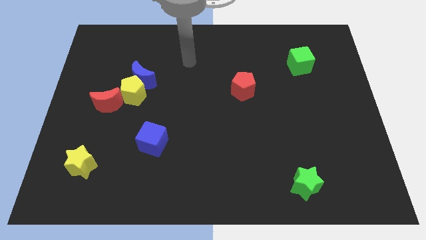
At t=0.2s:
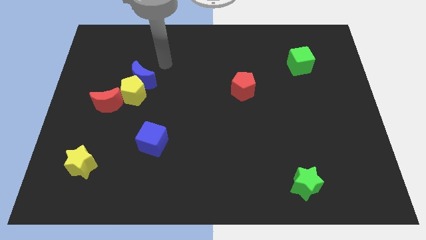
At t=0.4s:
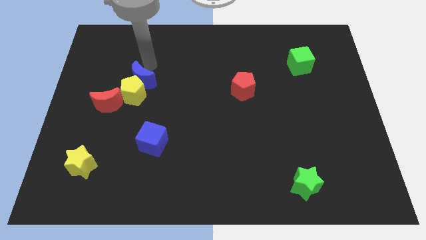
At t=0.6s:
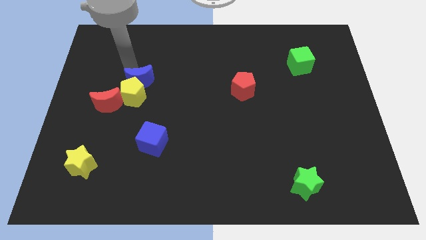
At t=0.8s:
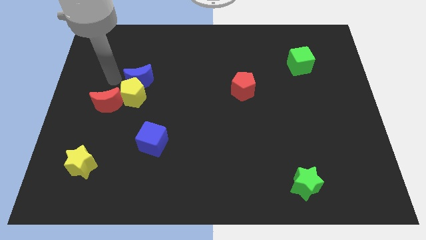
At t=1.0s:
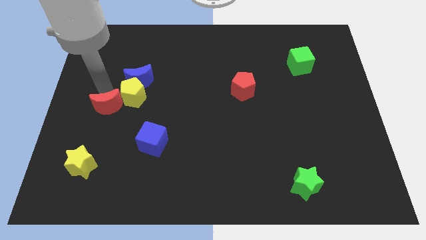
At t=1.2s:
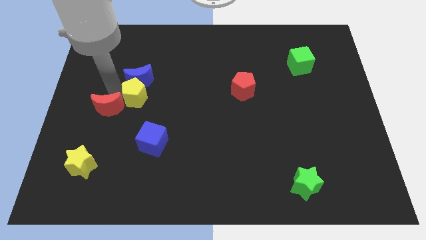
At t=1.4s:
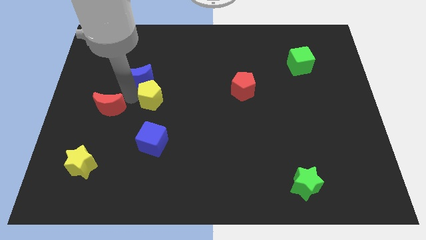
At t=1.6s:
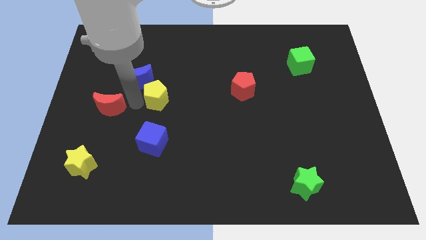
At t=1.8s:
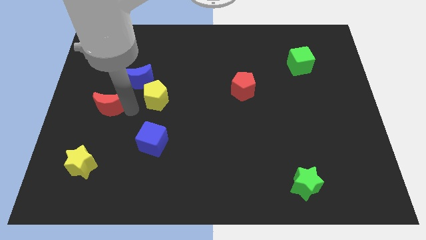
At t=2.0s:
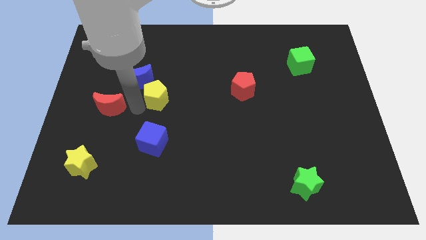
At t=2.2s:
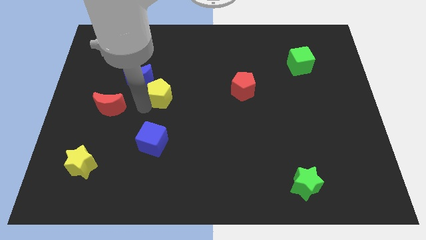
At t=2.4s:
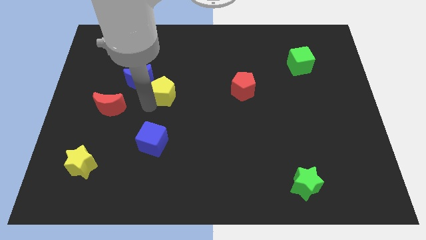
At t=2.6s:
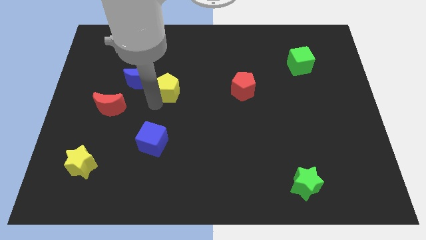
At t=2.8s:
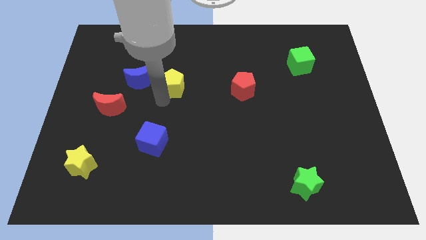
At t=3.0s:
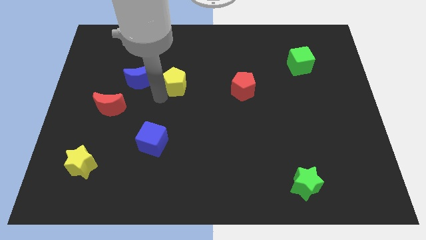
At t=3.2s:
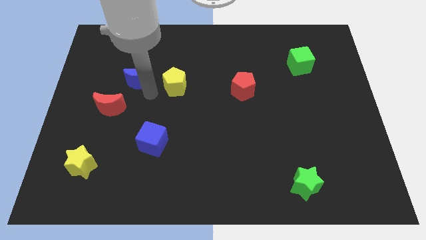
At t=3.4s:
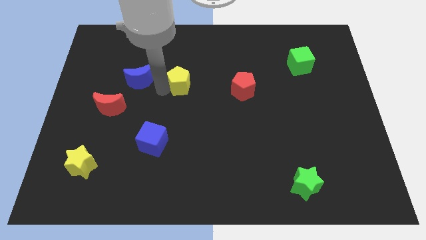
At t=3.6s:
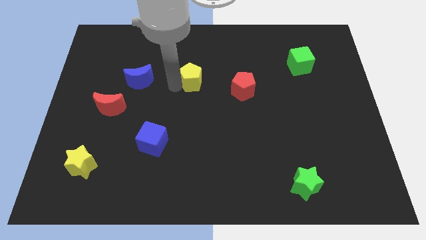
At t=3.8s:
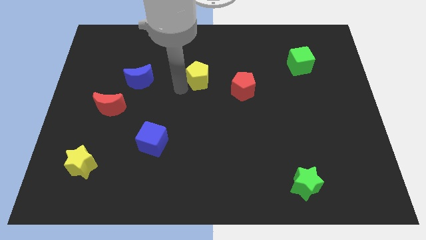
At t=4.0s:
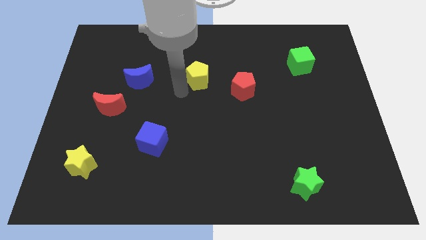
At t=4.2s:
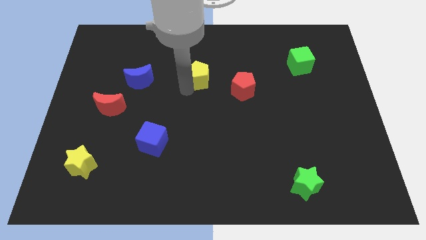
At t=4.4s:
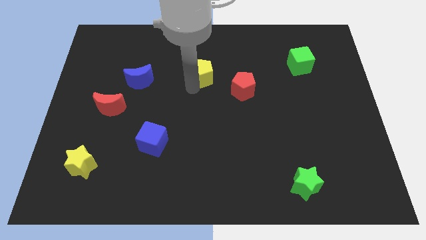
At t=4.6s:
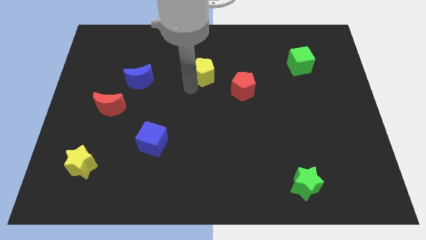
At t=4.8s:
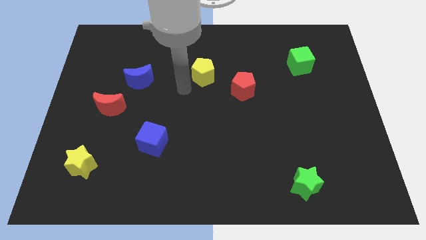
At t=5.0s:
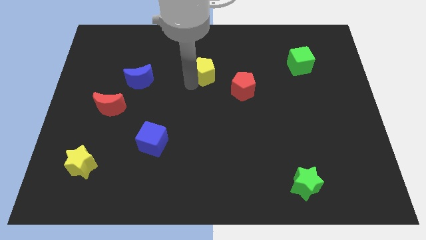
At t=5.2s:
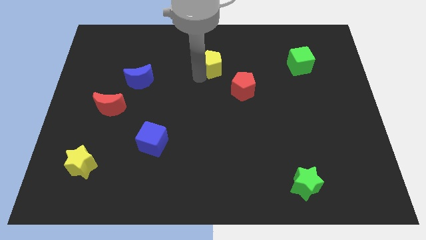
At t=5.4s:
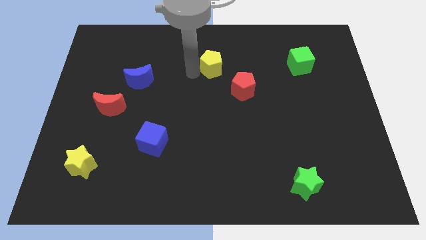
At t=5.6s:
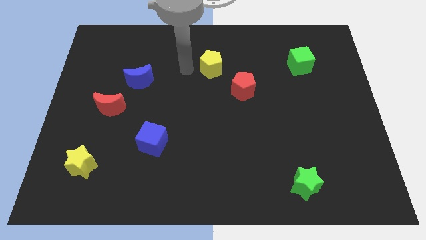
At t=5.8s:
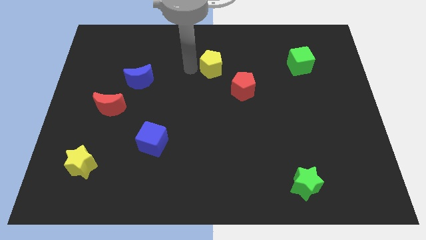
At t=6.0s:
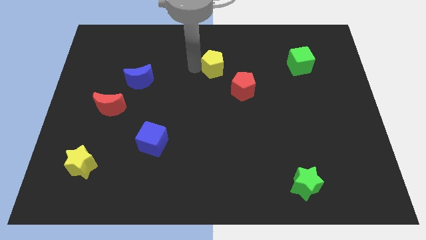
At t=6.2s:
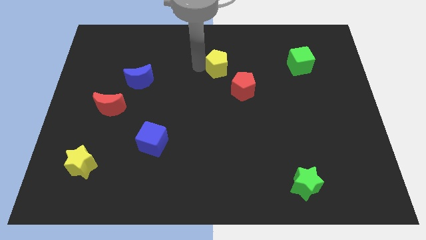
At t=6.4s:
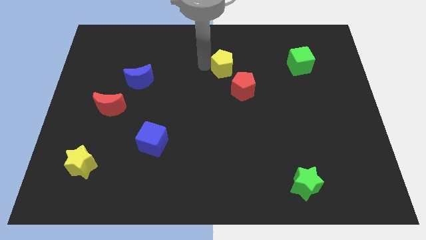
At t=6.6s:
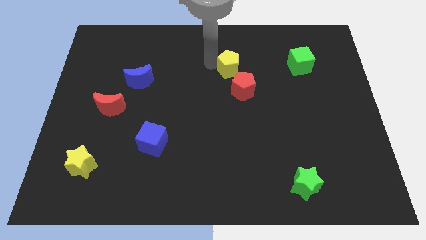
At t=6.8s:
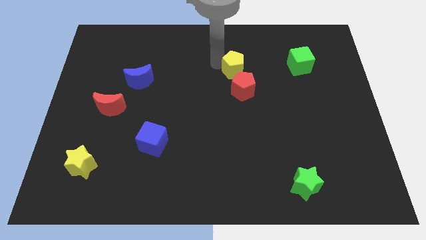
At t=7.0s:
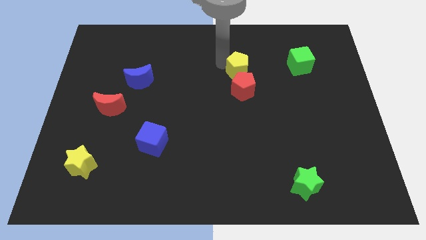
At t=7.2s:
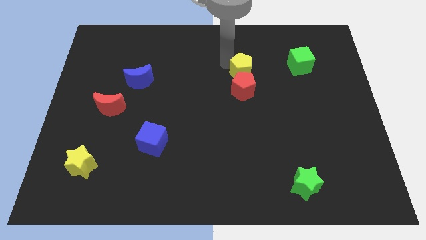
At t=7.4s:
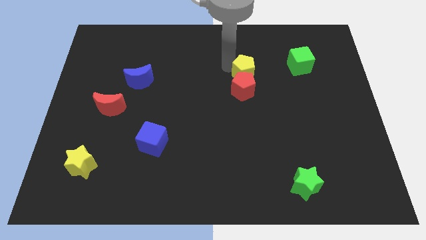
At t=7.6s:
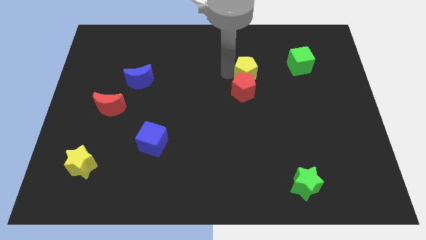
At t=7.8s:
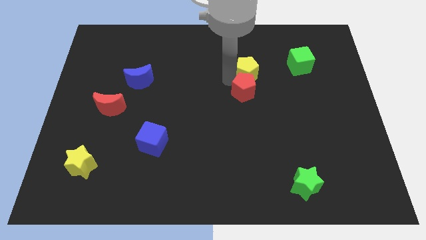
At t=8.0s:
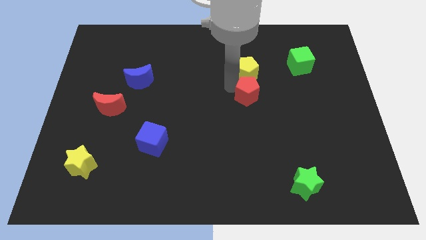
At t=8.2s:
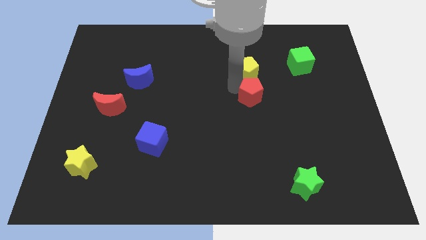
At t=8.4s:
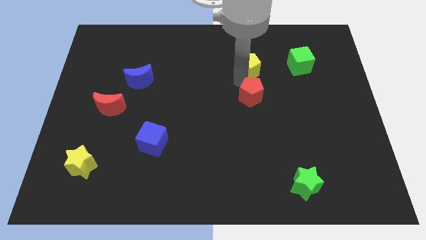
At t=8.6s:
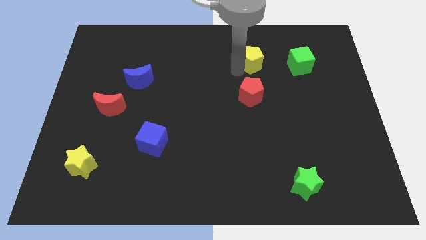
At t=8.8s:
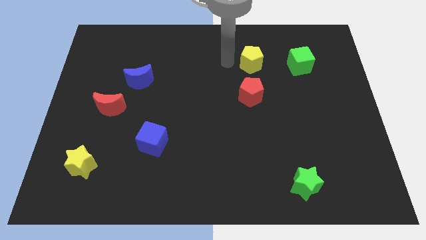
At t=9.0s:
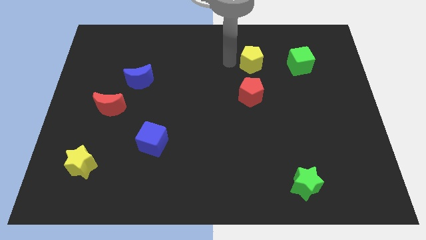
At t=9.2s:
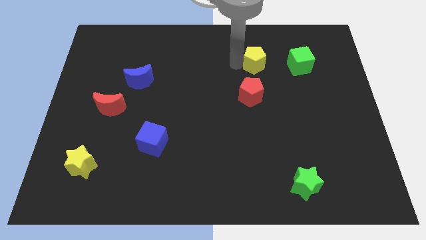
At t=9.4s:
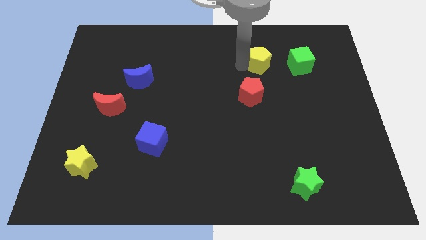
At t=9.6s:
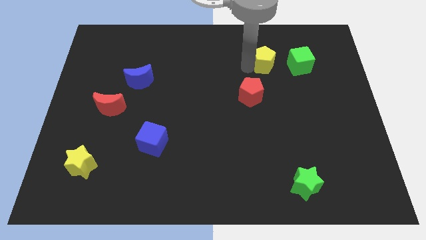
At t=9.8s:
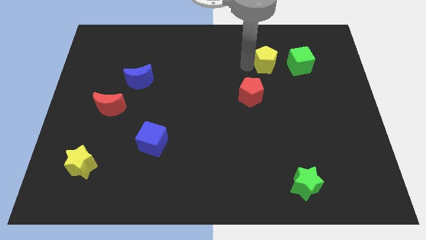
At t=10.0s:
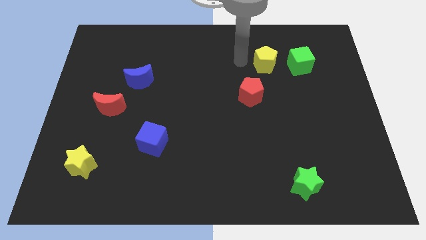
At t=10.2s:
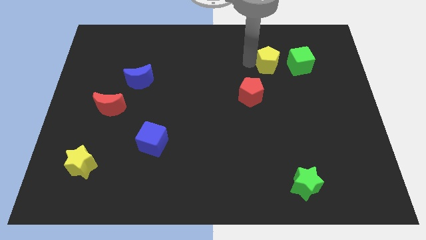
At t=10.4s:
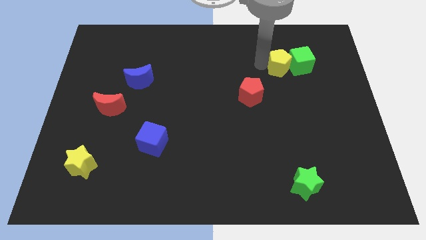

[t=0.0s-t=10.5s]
move the yellow pentagon towards the green cube

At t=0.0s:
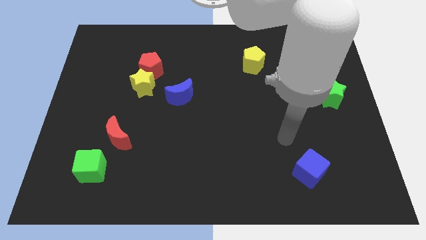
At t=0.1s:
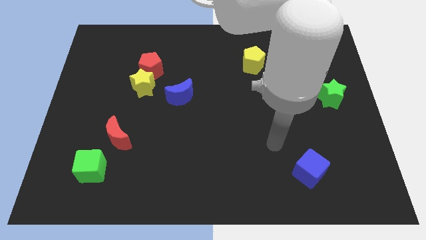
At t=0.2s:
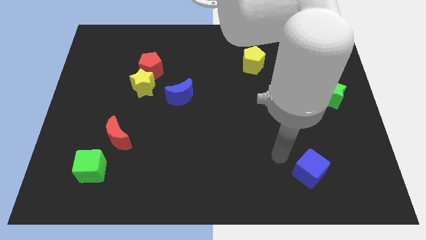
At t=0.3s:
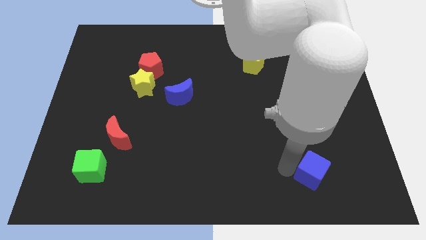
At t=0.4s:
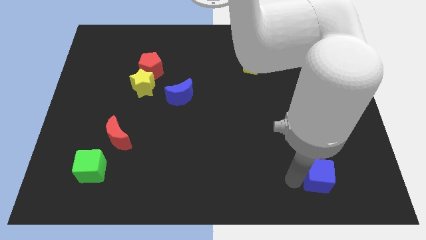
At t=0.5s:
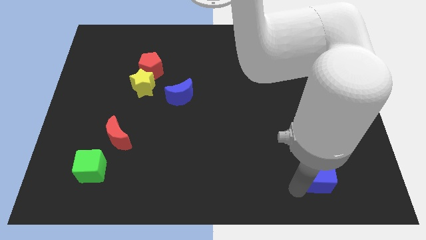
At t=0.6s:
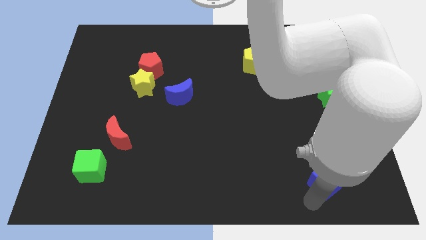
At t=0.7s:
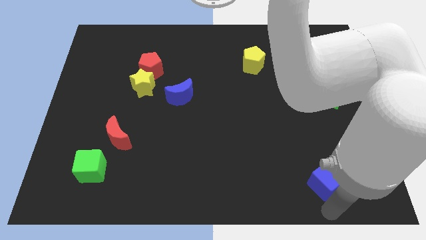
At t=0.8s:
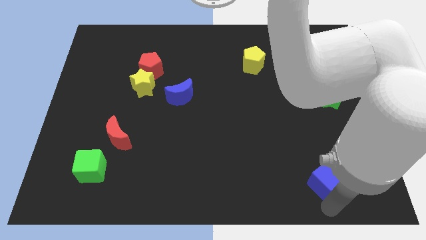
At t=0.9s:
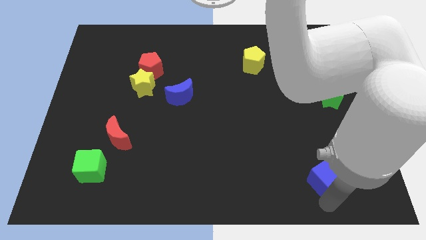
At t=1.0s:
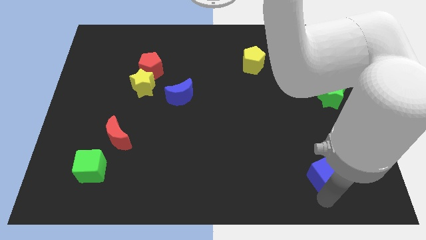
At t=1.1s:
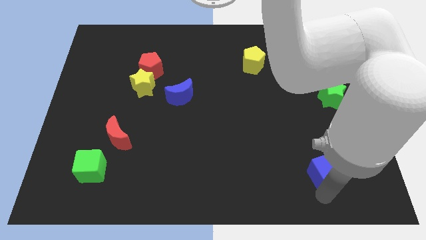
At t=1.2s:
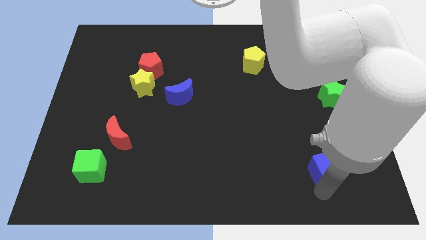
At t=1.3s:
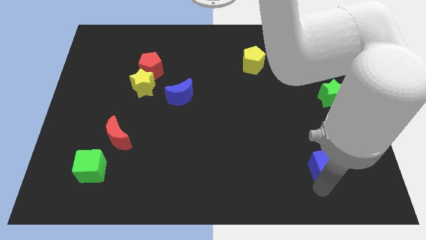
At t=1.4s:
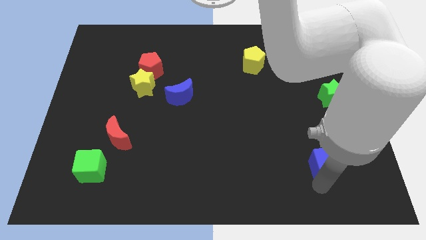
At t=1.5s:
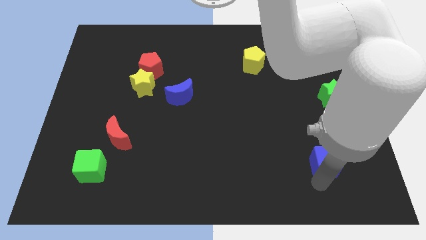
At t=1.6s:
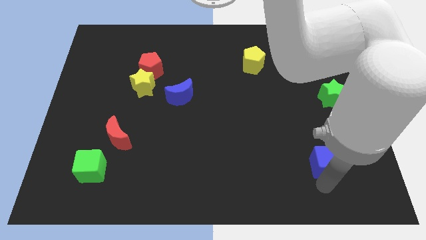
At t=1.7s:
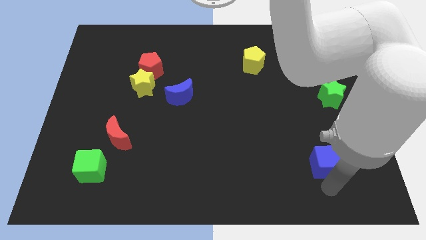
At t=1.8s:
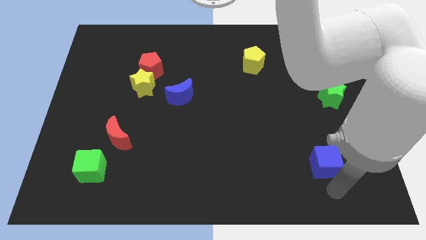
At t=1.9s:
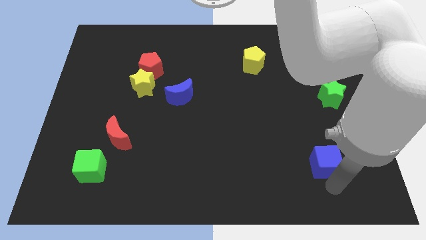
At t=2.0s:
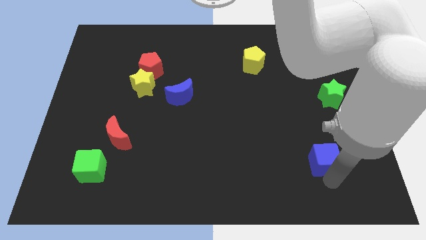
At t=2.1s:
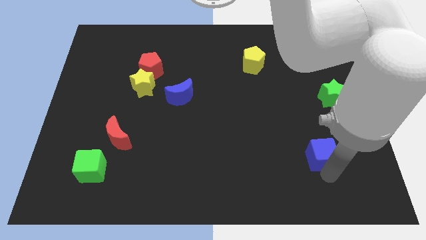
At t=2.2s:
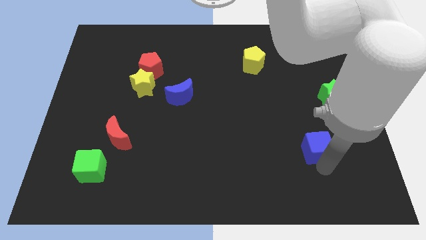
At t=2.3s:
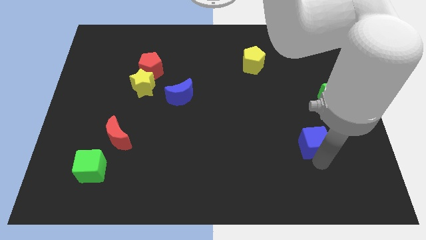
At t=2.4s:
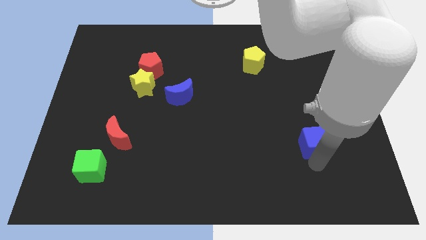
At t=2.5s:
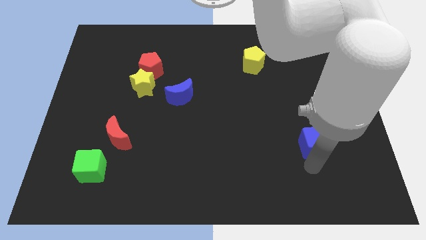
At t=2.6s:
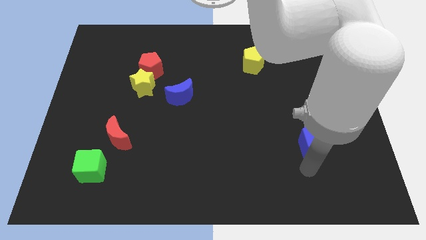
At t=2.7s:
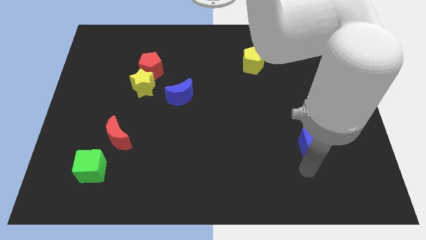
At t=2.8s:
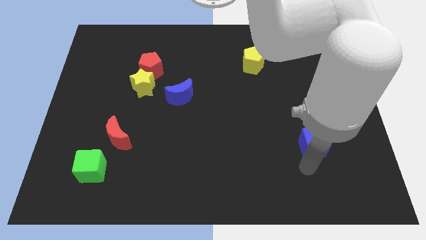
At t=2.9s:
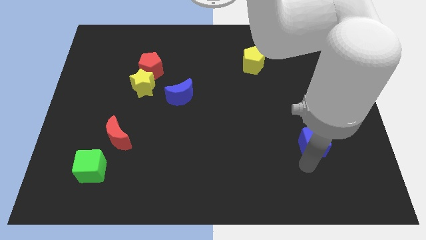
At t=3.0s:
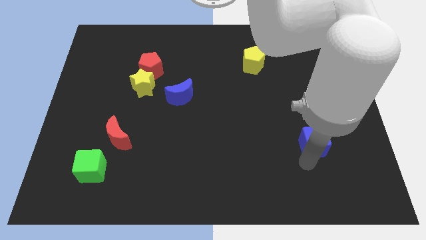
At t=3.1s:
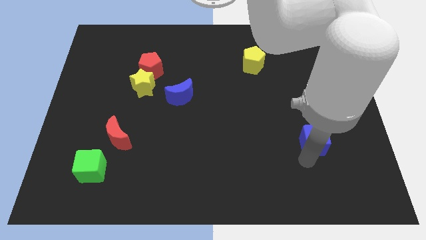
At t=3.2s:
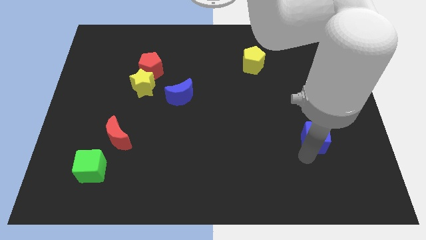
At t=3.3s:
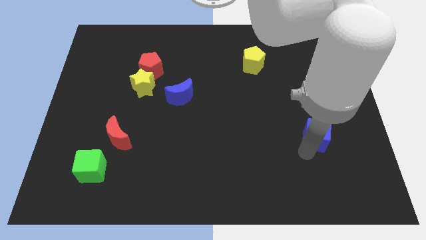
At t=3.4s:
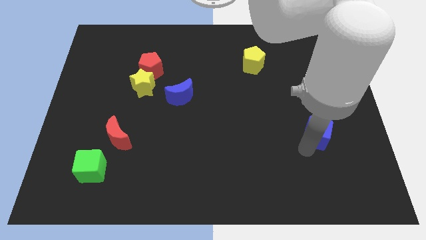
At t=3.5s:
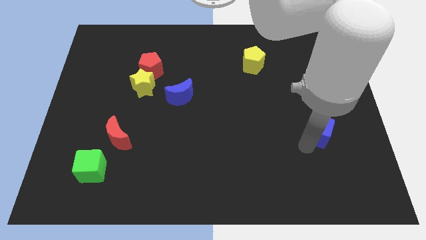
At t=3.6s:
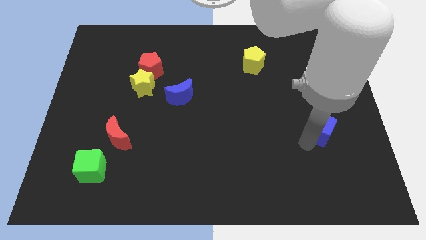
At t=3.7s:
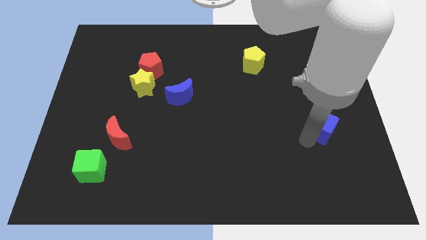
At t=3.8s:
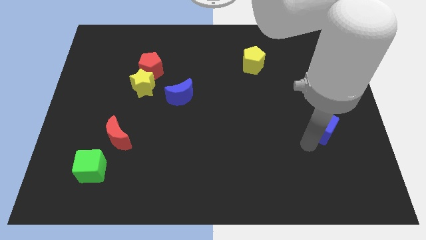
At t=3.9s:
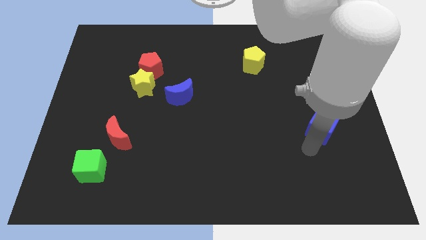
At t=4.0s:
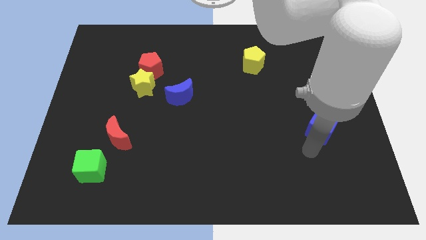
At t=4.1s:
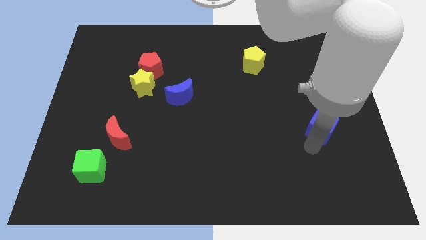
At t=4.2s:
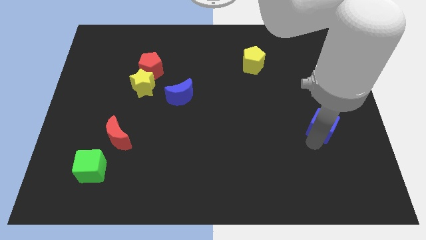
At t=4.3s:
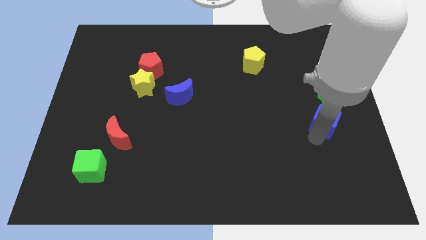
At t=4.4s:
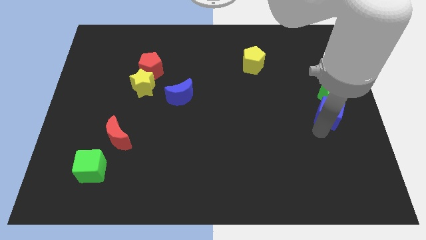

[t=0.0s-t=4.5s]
slide the blue cube next to the green star
